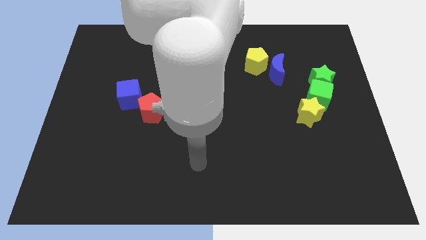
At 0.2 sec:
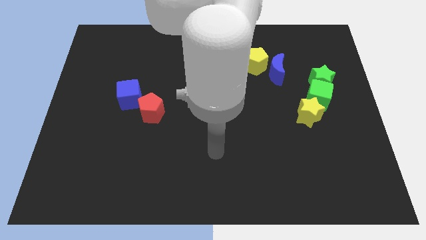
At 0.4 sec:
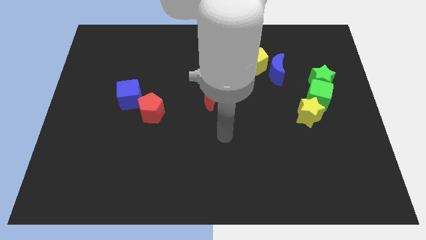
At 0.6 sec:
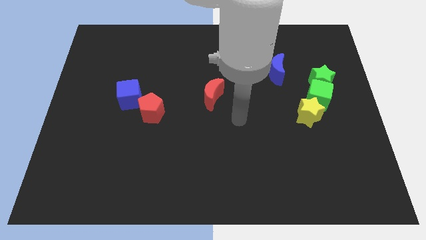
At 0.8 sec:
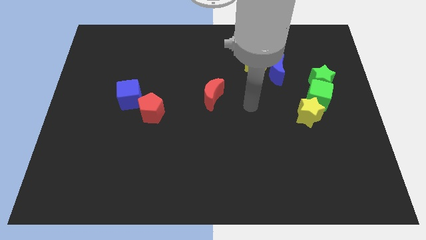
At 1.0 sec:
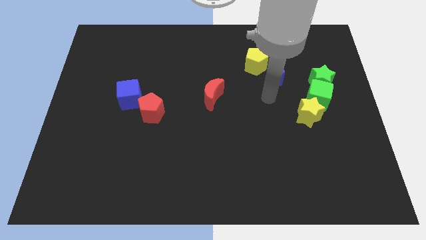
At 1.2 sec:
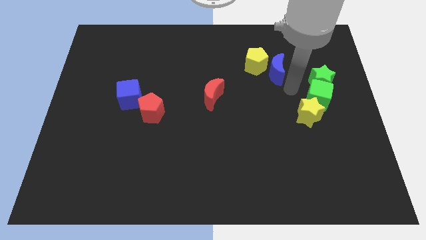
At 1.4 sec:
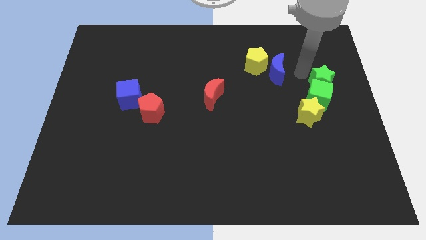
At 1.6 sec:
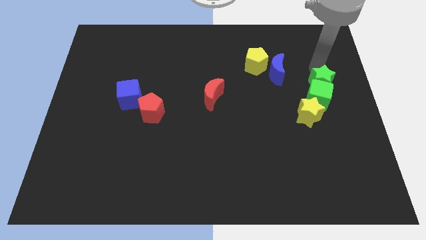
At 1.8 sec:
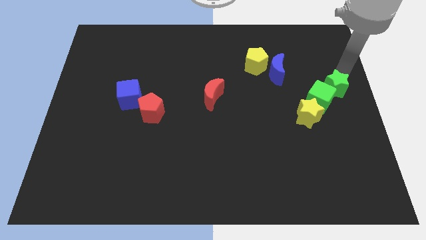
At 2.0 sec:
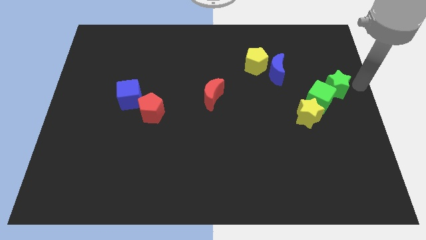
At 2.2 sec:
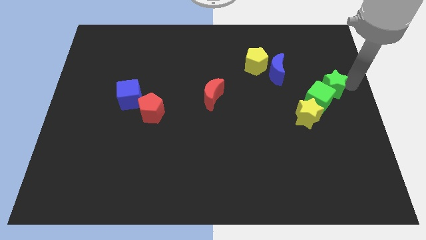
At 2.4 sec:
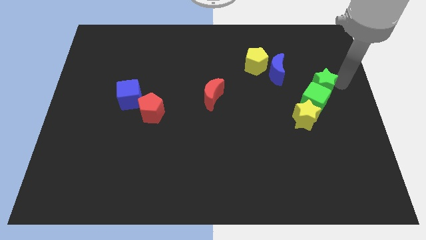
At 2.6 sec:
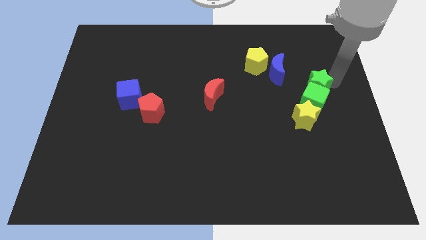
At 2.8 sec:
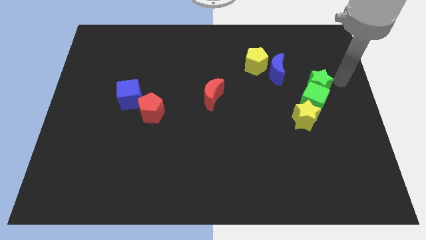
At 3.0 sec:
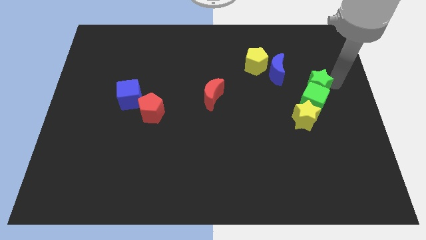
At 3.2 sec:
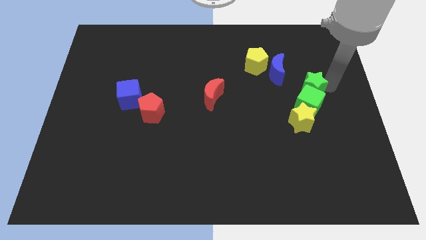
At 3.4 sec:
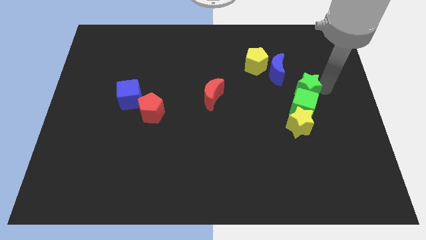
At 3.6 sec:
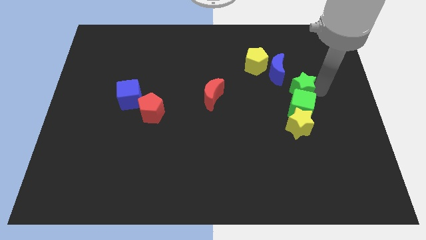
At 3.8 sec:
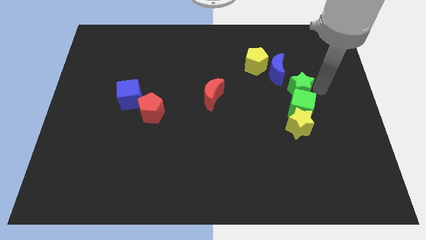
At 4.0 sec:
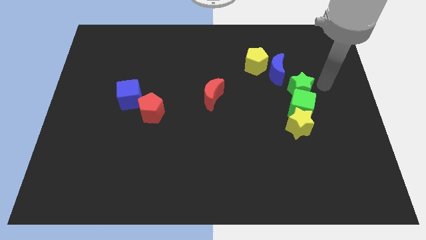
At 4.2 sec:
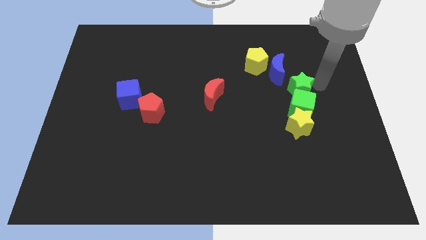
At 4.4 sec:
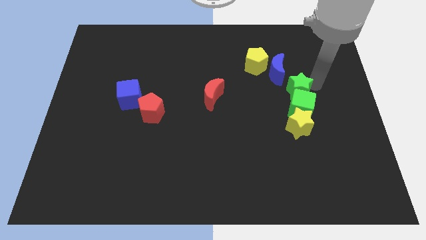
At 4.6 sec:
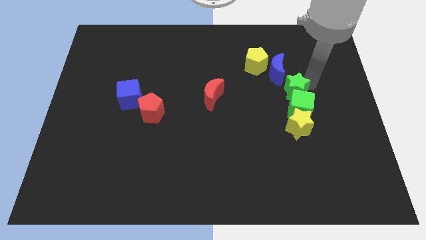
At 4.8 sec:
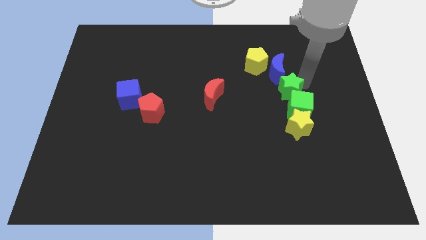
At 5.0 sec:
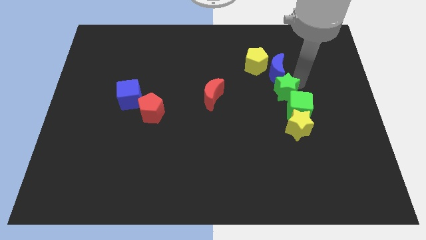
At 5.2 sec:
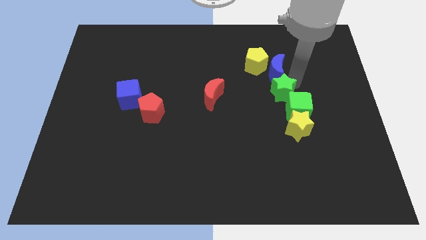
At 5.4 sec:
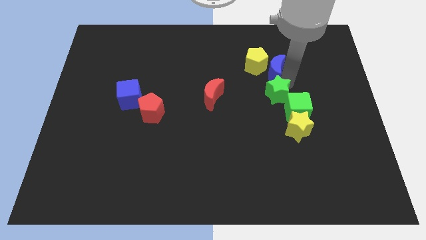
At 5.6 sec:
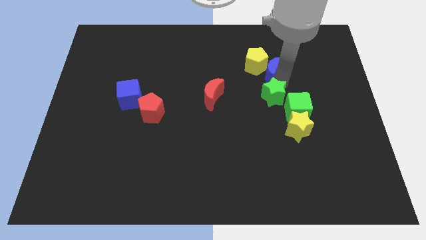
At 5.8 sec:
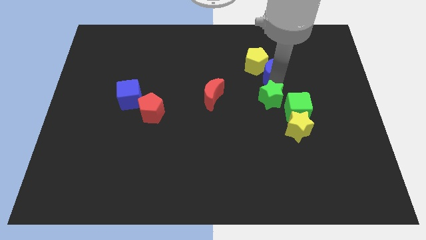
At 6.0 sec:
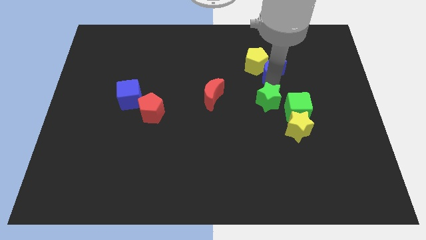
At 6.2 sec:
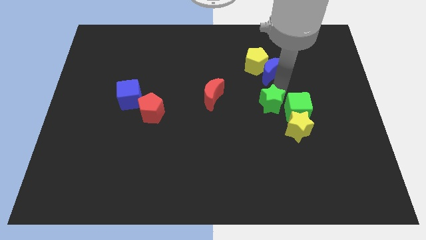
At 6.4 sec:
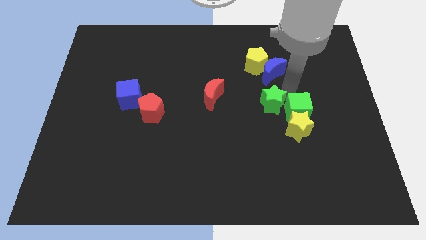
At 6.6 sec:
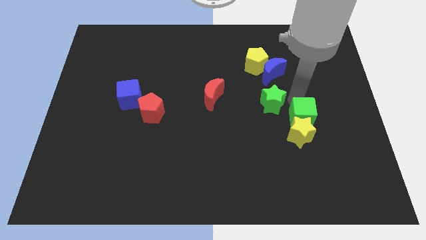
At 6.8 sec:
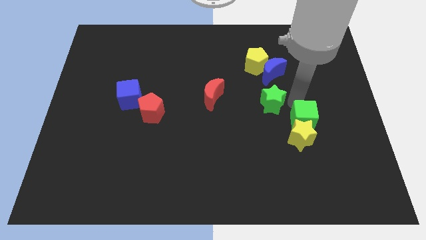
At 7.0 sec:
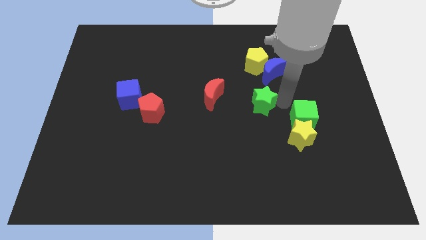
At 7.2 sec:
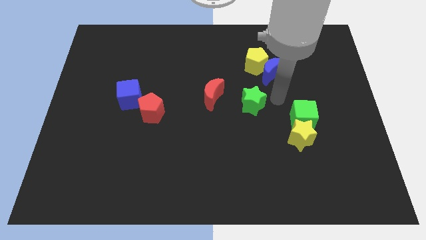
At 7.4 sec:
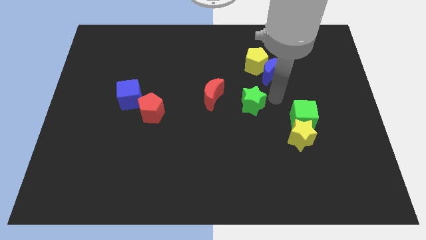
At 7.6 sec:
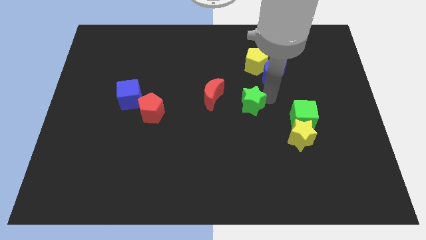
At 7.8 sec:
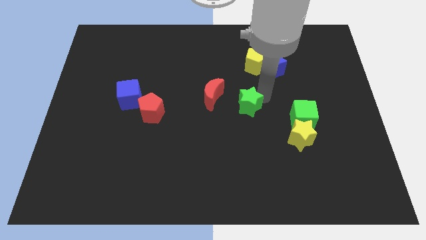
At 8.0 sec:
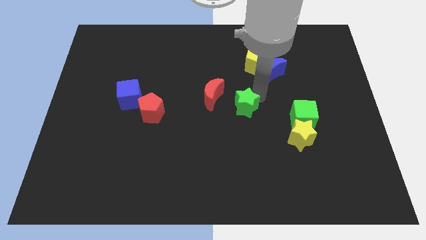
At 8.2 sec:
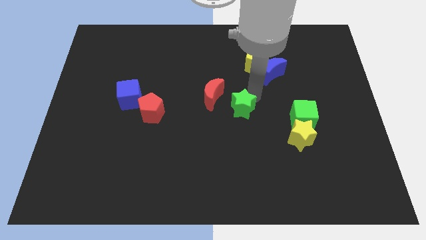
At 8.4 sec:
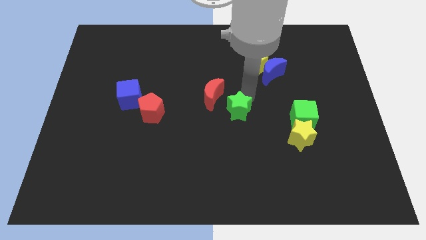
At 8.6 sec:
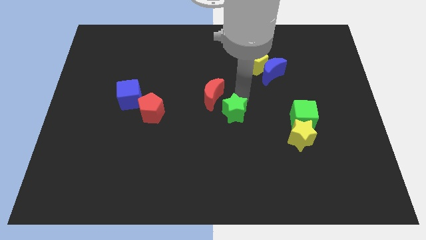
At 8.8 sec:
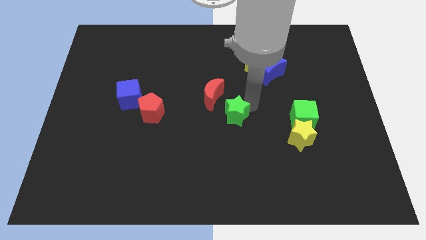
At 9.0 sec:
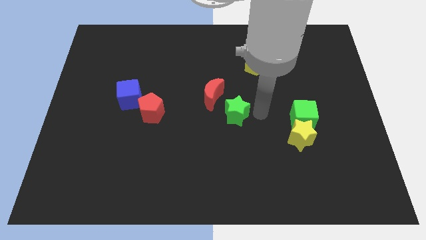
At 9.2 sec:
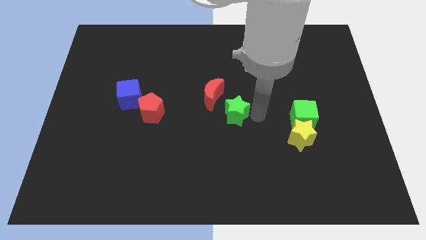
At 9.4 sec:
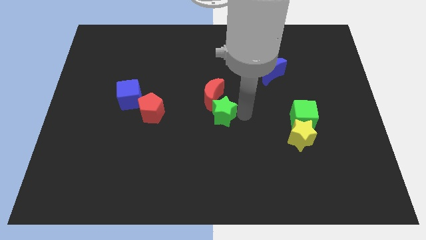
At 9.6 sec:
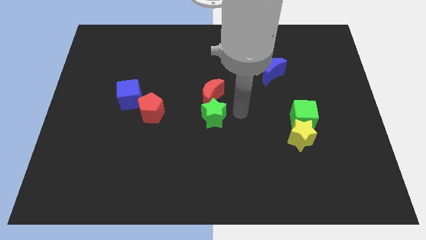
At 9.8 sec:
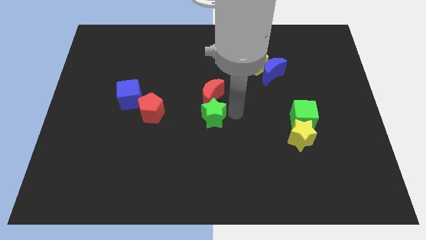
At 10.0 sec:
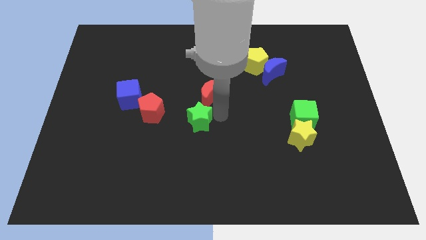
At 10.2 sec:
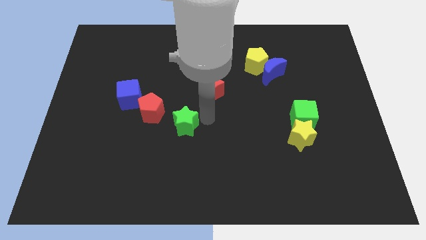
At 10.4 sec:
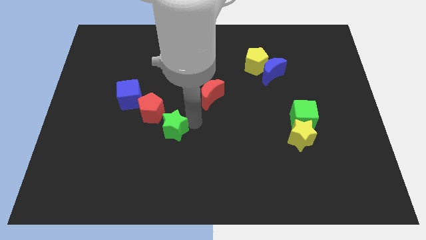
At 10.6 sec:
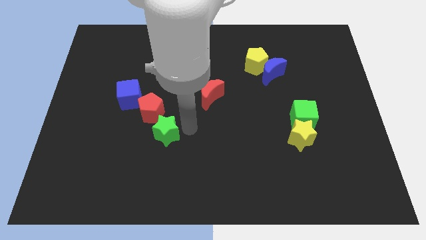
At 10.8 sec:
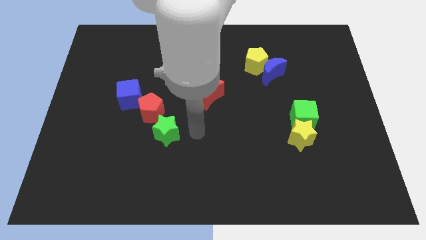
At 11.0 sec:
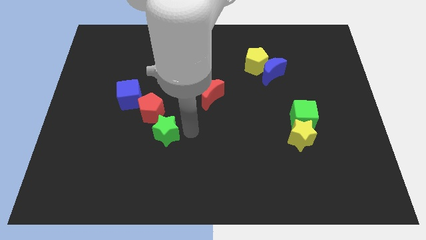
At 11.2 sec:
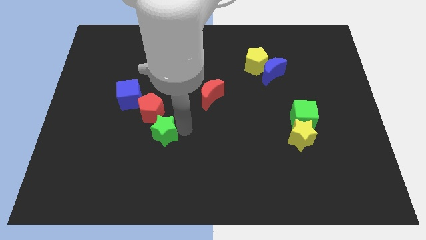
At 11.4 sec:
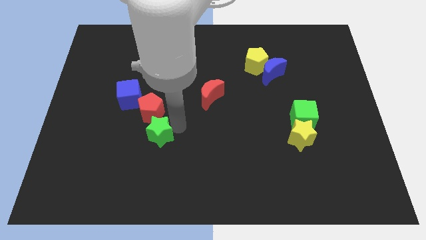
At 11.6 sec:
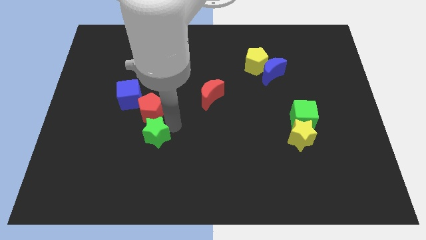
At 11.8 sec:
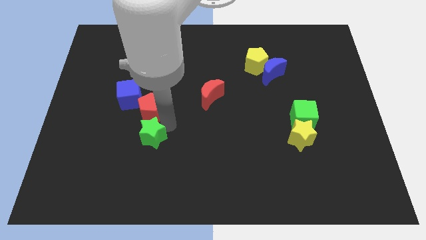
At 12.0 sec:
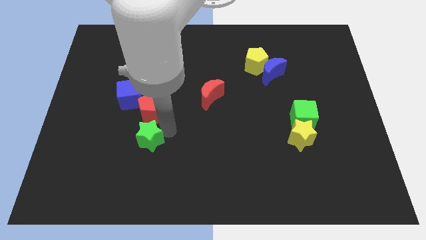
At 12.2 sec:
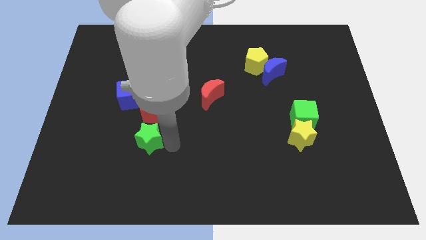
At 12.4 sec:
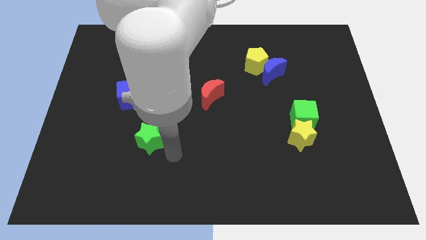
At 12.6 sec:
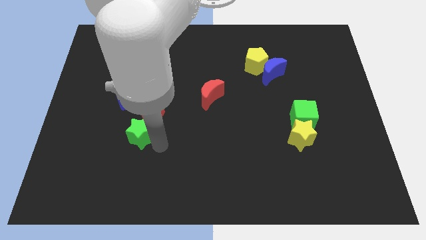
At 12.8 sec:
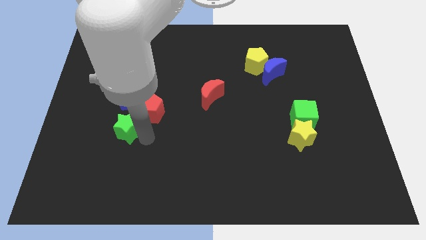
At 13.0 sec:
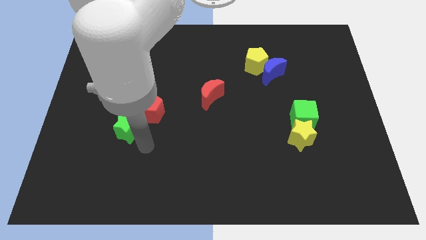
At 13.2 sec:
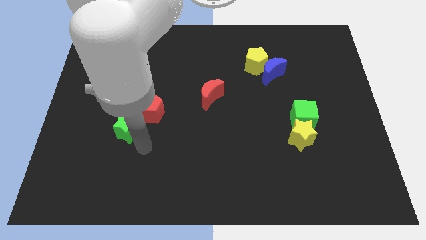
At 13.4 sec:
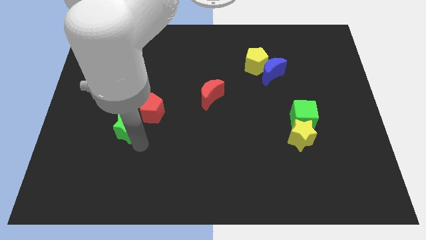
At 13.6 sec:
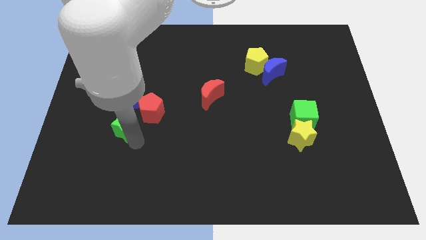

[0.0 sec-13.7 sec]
put the green star to the left side of the red pentagon
